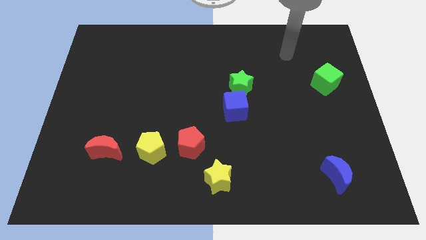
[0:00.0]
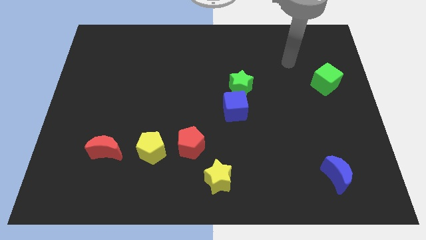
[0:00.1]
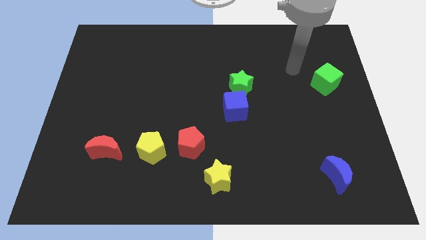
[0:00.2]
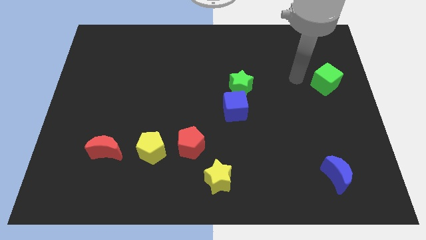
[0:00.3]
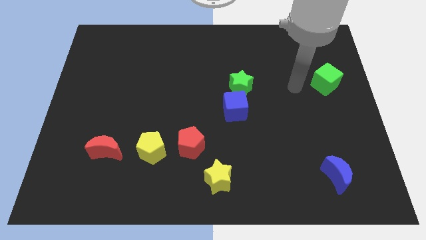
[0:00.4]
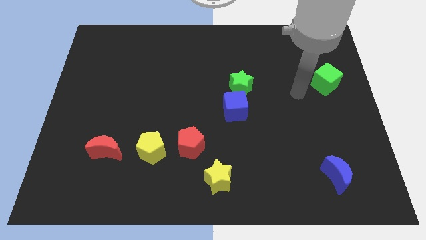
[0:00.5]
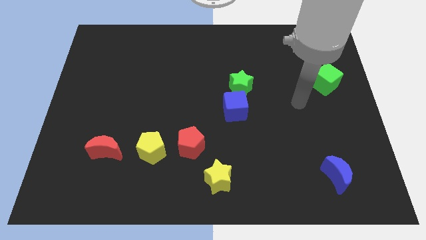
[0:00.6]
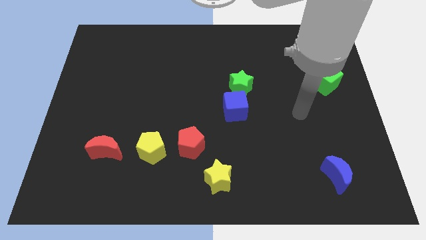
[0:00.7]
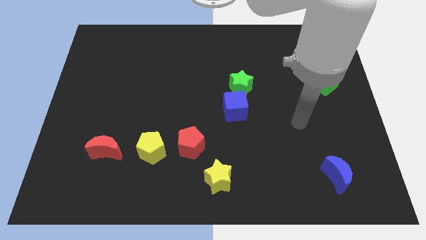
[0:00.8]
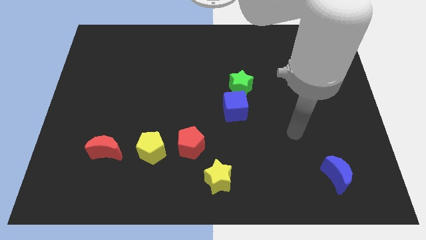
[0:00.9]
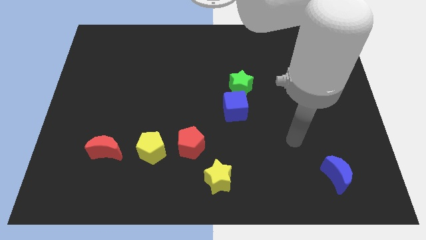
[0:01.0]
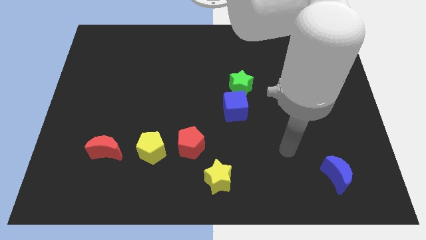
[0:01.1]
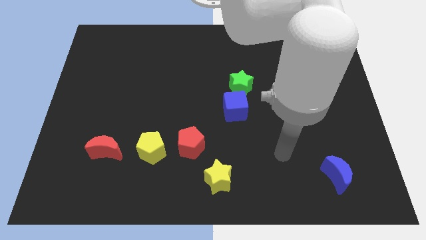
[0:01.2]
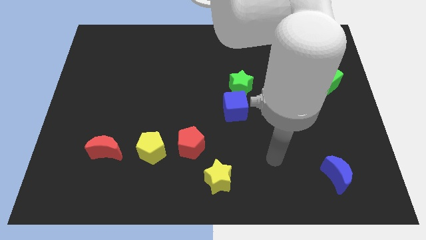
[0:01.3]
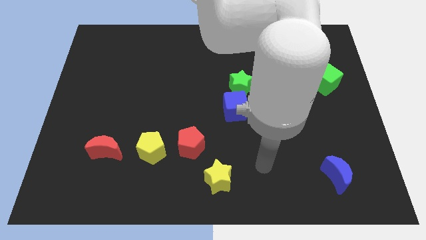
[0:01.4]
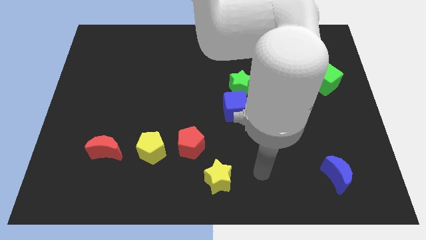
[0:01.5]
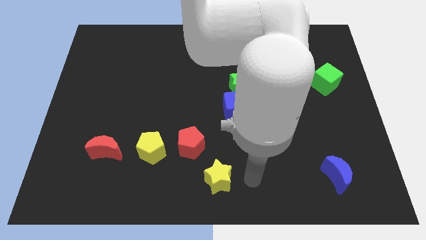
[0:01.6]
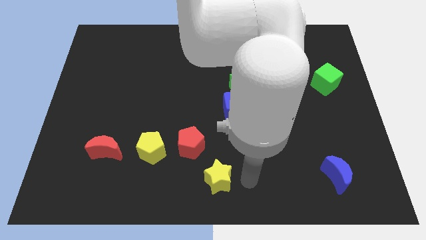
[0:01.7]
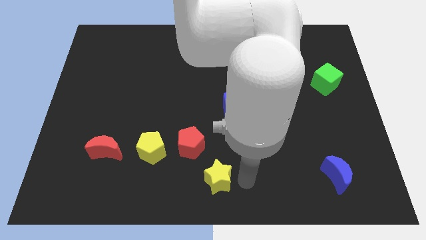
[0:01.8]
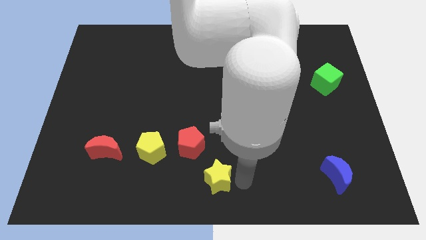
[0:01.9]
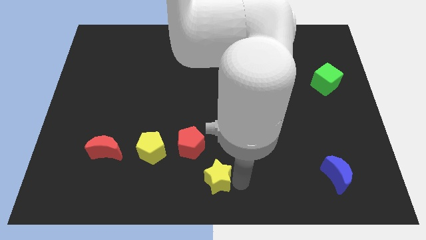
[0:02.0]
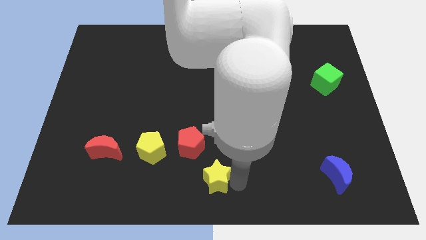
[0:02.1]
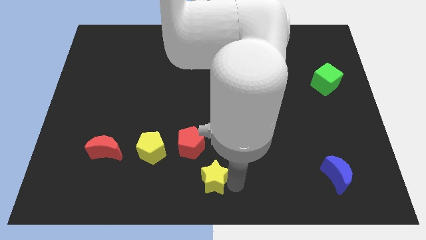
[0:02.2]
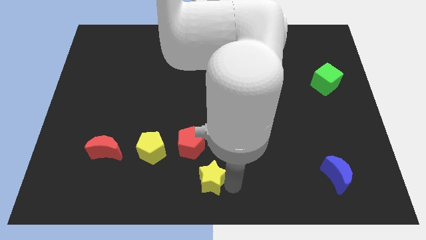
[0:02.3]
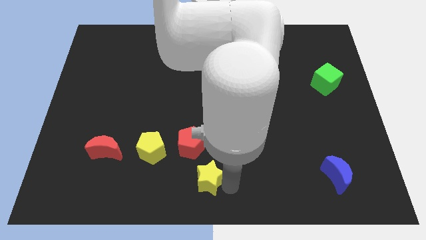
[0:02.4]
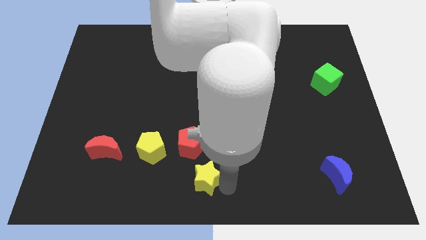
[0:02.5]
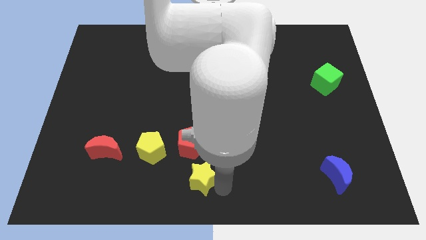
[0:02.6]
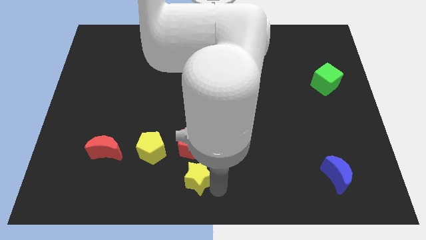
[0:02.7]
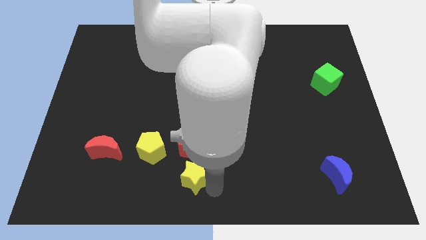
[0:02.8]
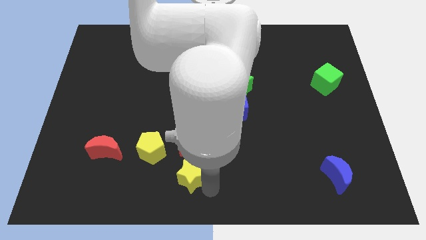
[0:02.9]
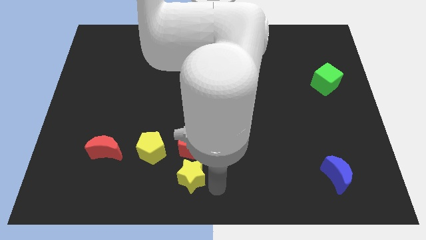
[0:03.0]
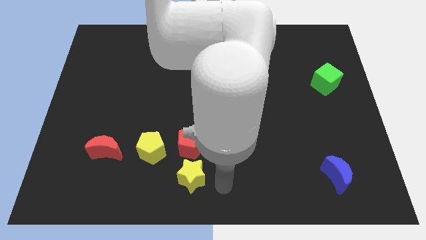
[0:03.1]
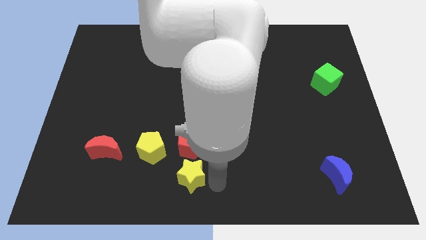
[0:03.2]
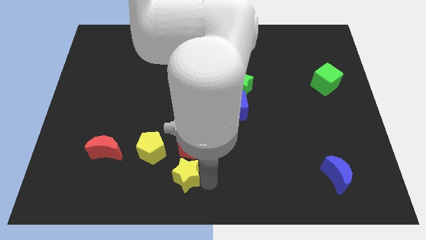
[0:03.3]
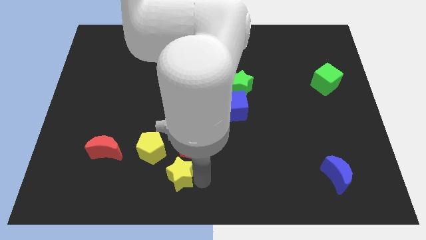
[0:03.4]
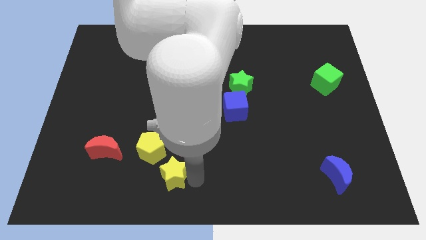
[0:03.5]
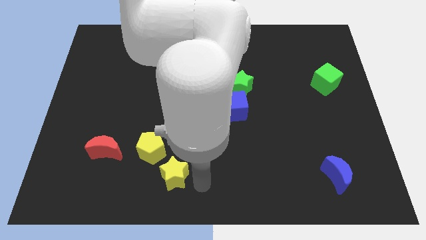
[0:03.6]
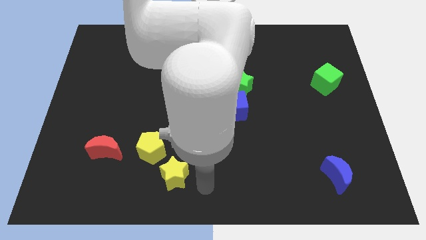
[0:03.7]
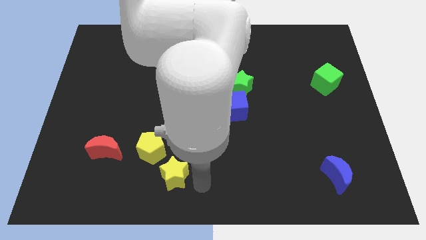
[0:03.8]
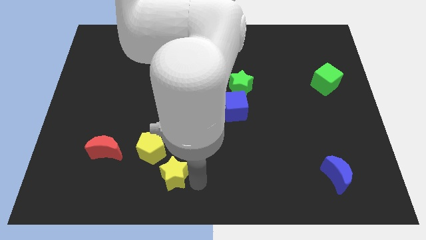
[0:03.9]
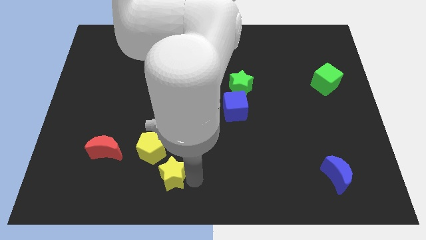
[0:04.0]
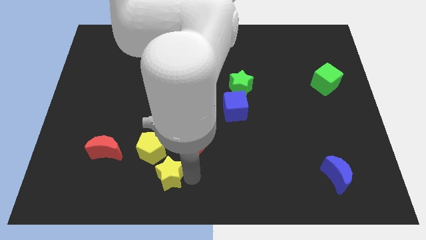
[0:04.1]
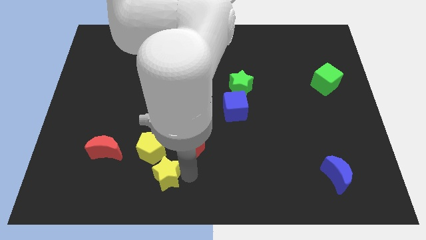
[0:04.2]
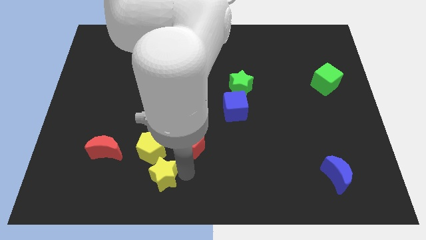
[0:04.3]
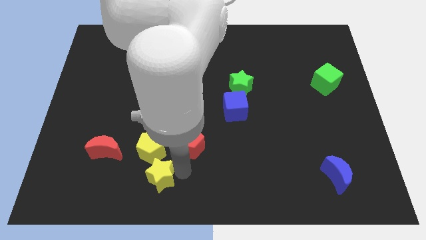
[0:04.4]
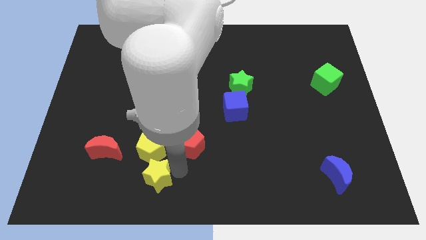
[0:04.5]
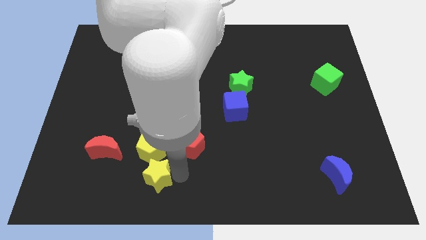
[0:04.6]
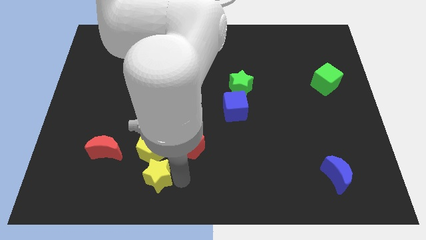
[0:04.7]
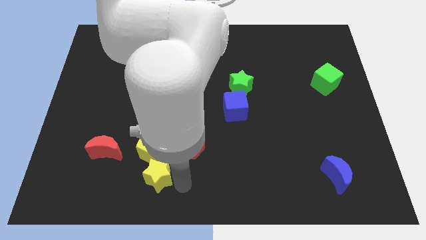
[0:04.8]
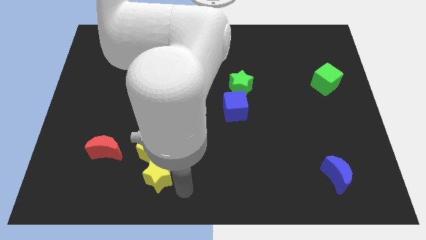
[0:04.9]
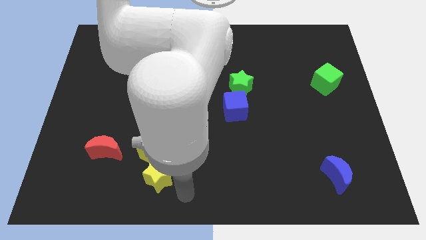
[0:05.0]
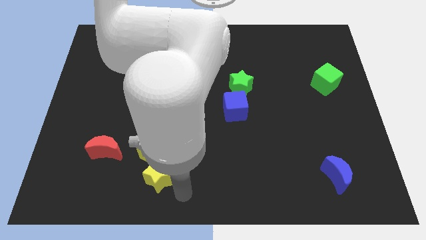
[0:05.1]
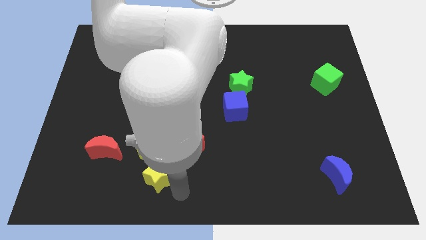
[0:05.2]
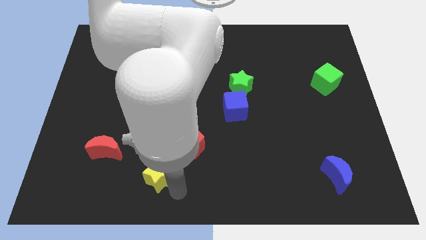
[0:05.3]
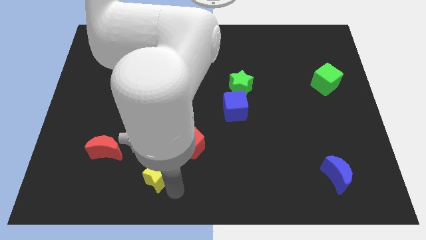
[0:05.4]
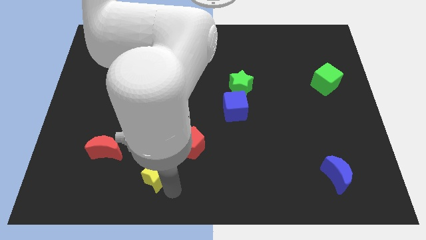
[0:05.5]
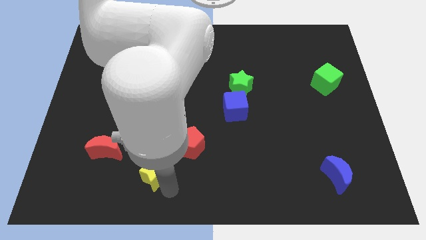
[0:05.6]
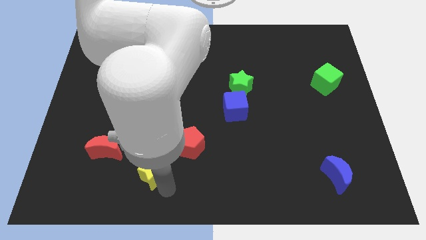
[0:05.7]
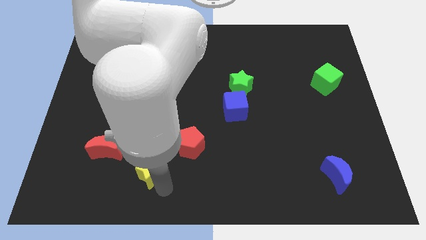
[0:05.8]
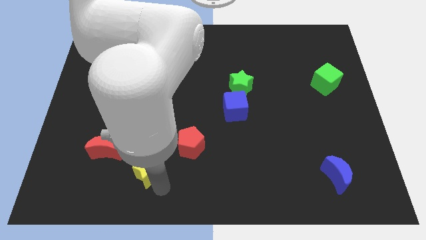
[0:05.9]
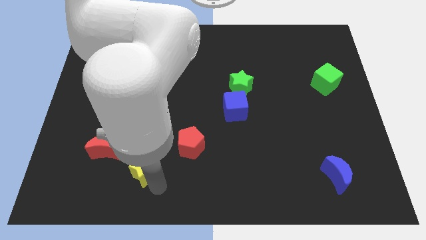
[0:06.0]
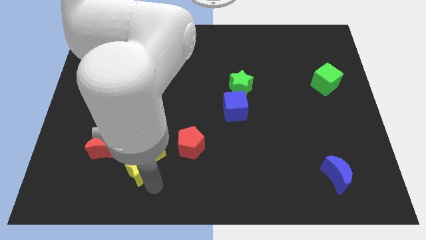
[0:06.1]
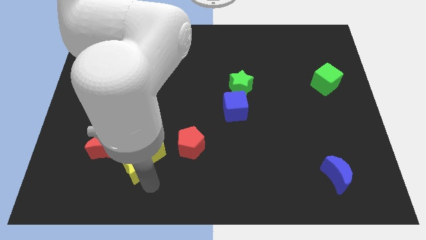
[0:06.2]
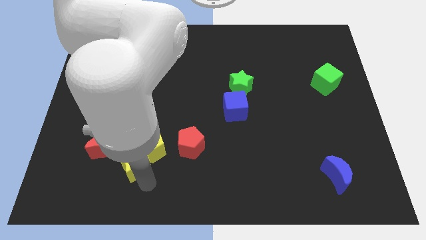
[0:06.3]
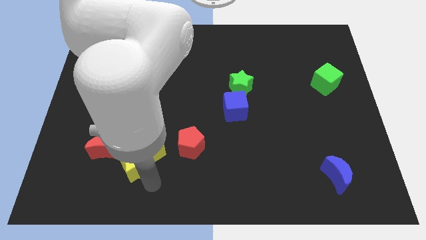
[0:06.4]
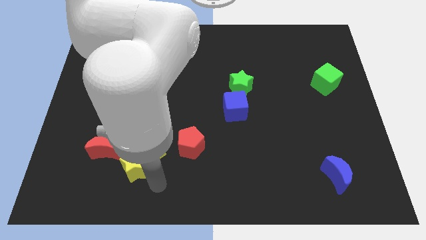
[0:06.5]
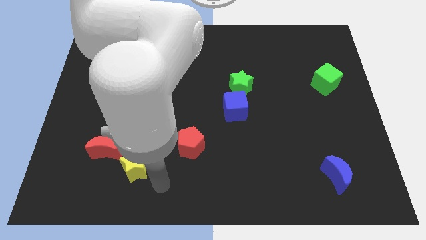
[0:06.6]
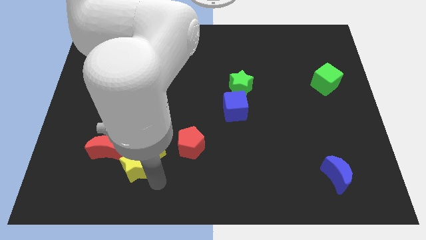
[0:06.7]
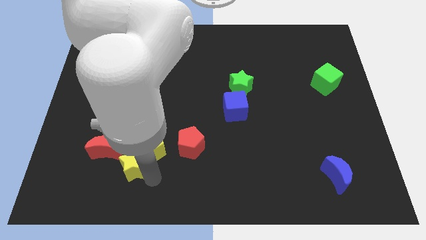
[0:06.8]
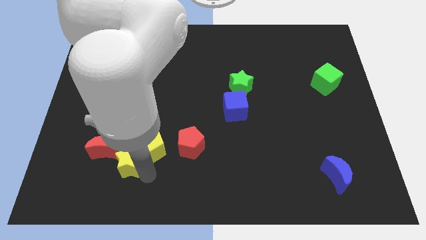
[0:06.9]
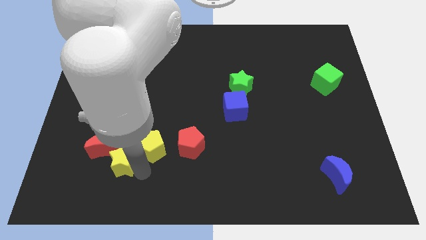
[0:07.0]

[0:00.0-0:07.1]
move the yellow star towards the red moon
